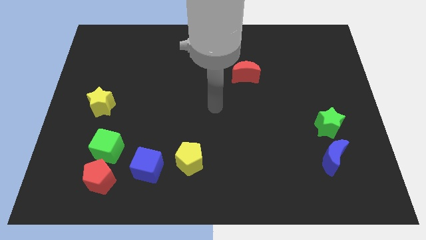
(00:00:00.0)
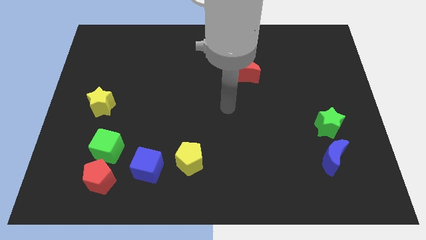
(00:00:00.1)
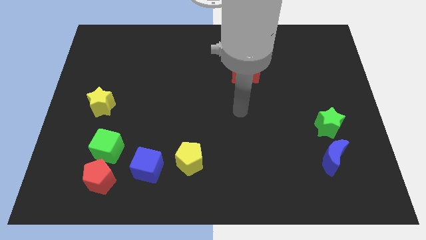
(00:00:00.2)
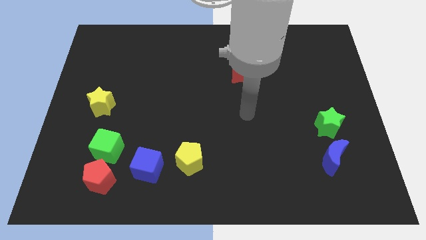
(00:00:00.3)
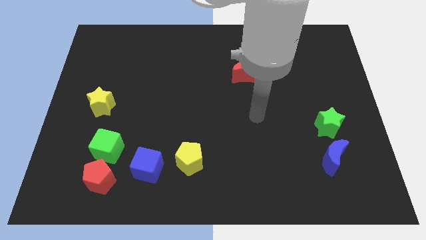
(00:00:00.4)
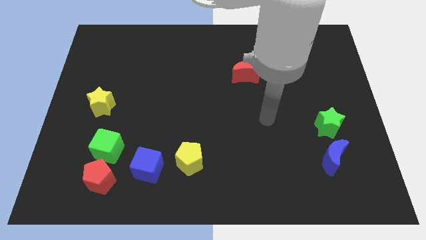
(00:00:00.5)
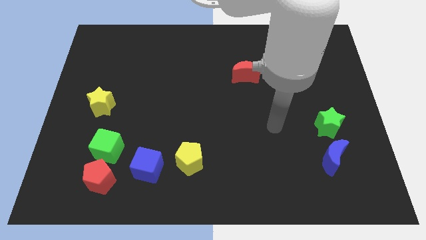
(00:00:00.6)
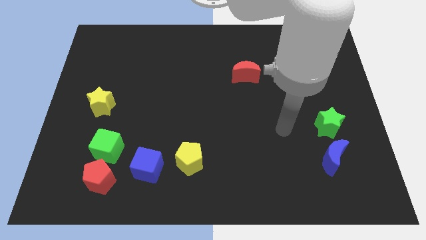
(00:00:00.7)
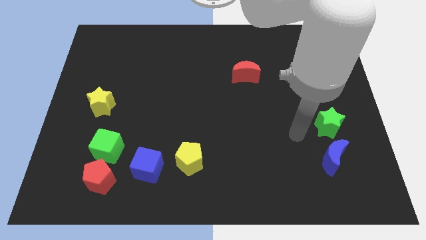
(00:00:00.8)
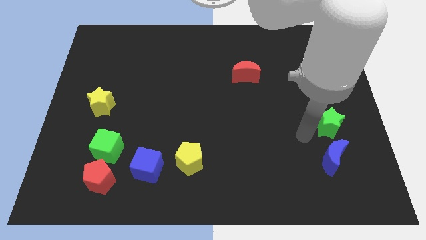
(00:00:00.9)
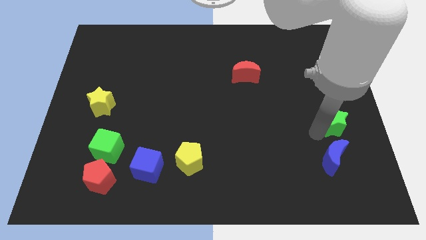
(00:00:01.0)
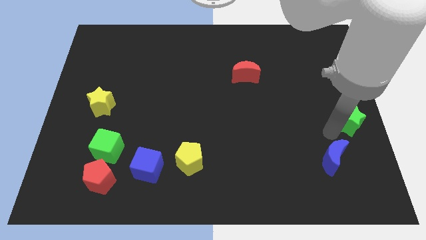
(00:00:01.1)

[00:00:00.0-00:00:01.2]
separate the blue moon from the green star

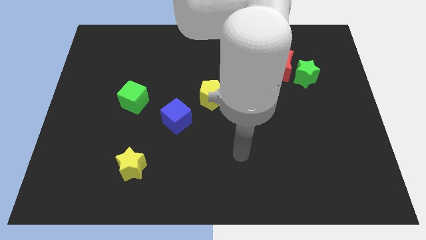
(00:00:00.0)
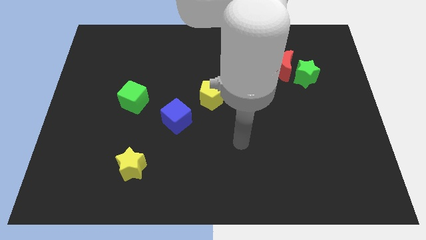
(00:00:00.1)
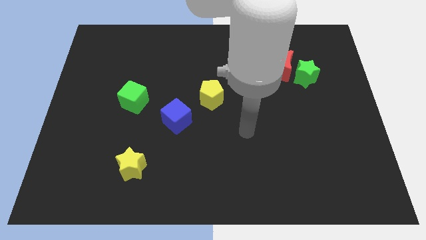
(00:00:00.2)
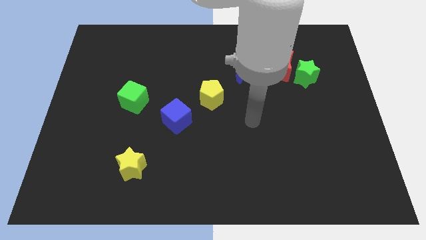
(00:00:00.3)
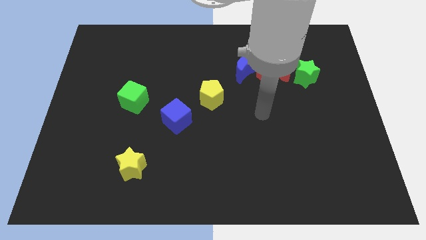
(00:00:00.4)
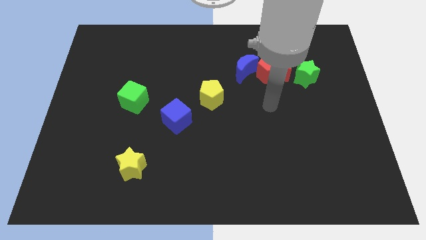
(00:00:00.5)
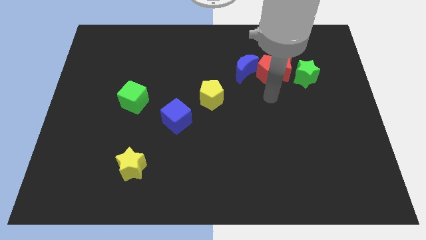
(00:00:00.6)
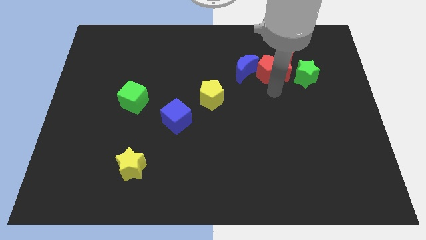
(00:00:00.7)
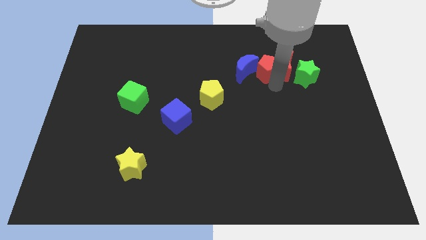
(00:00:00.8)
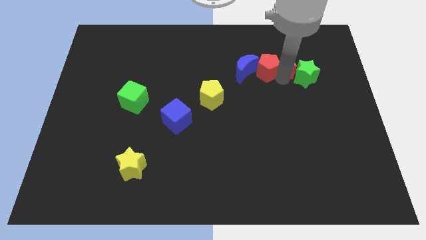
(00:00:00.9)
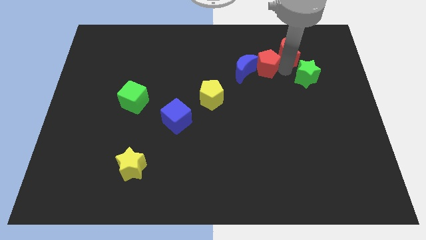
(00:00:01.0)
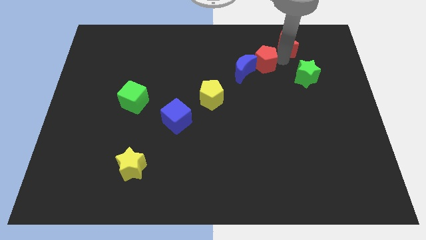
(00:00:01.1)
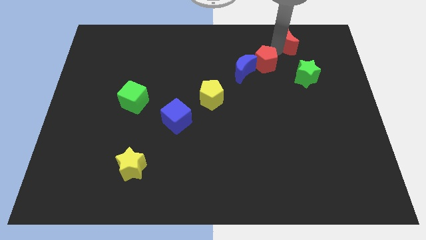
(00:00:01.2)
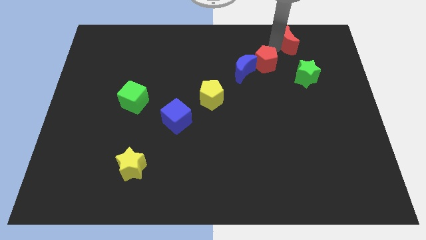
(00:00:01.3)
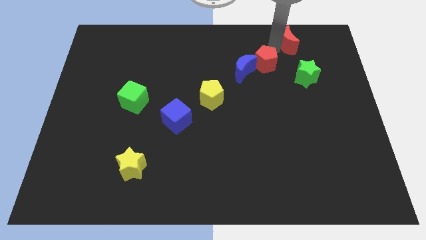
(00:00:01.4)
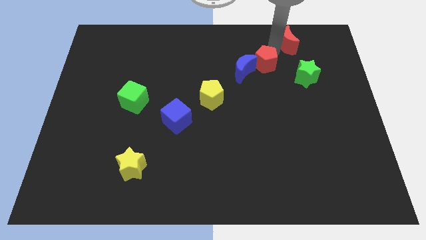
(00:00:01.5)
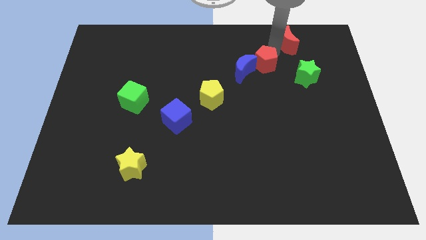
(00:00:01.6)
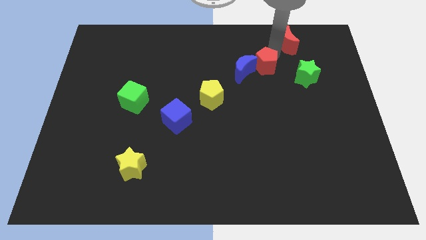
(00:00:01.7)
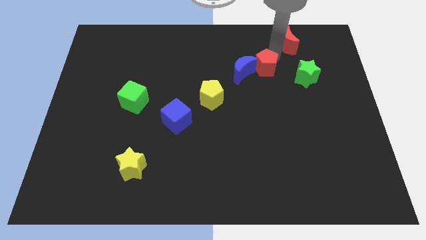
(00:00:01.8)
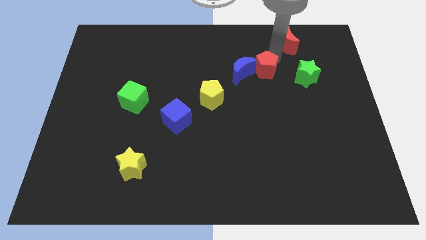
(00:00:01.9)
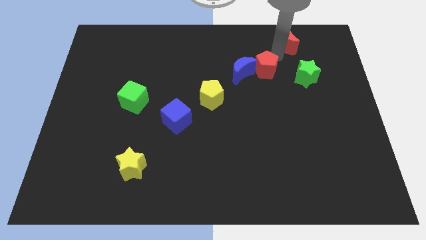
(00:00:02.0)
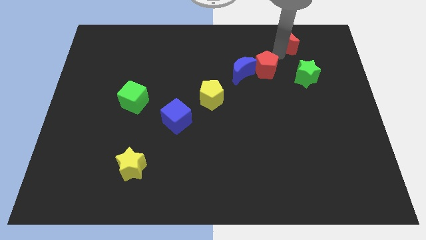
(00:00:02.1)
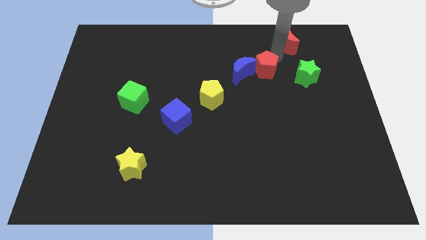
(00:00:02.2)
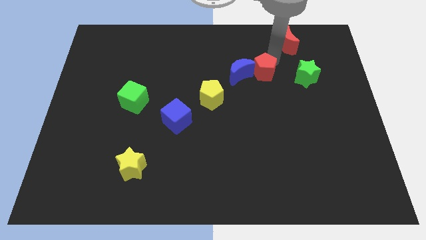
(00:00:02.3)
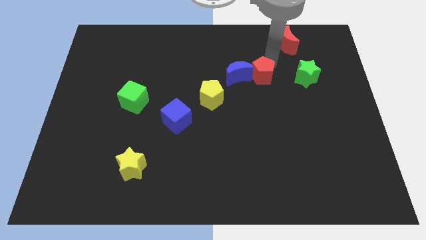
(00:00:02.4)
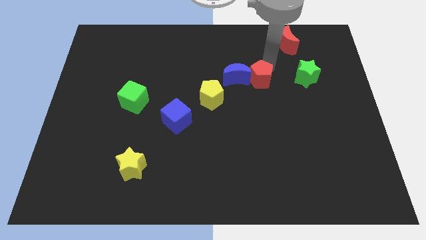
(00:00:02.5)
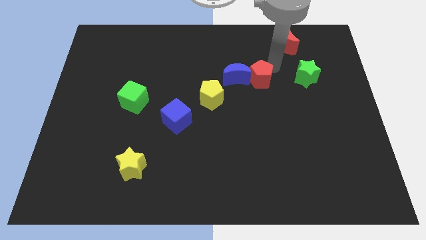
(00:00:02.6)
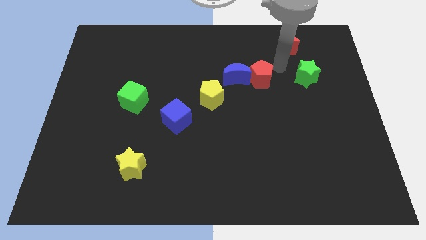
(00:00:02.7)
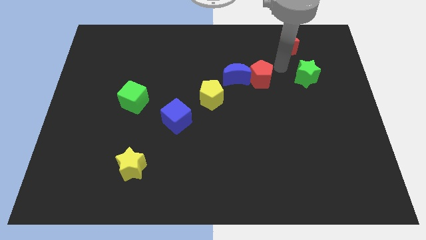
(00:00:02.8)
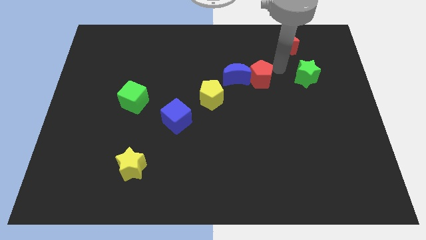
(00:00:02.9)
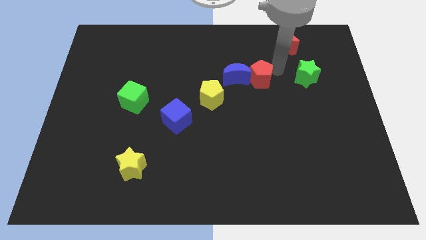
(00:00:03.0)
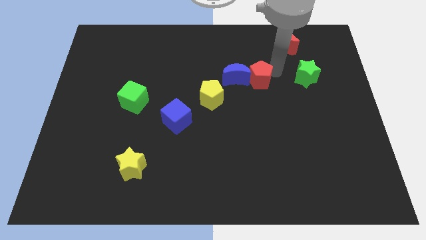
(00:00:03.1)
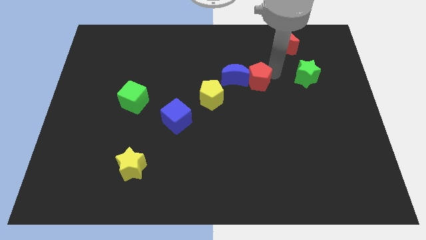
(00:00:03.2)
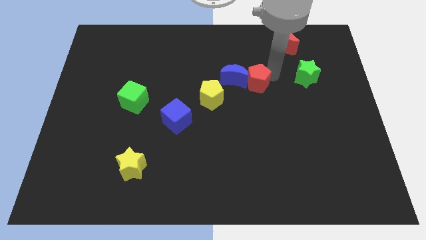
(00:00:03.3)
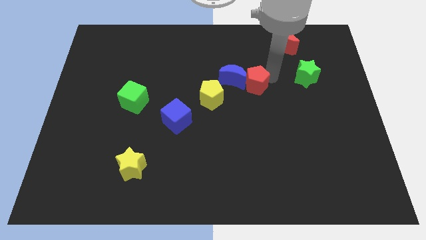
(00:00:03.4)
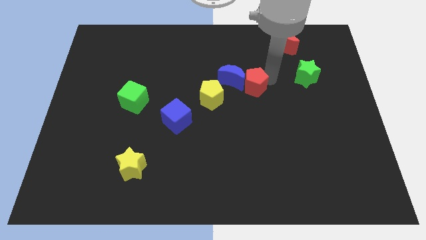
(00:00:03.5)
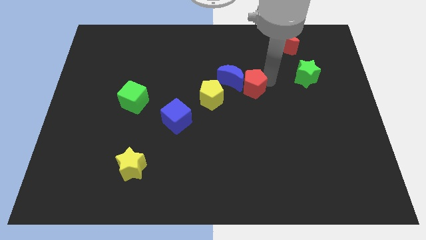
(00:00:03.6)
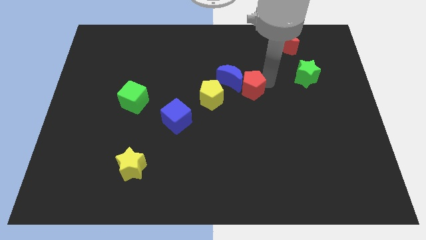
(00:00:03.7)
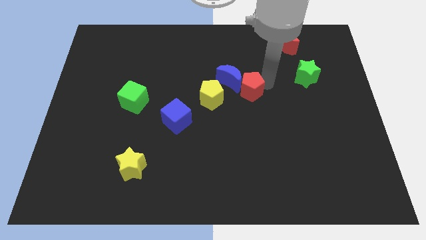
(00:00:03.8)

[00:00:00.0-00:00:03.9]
separate the red pentagon from the group

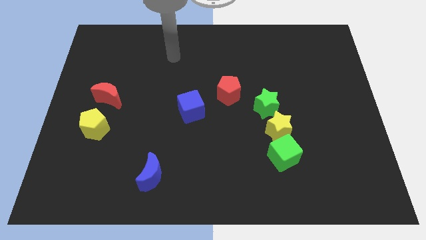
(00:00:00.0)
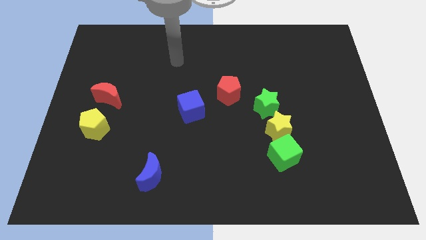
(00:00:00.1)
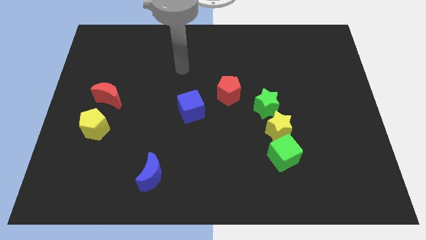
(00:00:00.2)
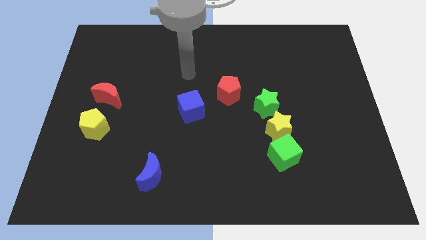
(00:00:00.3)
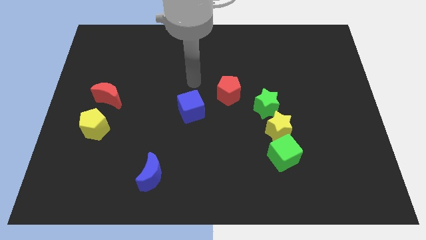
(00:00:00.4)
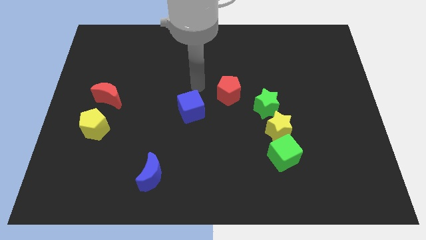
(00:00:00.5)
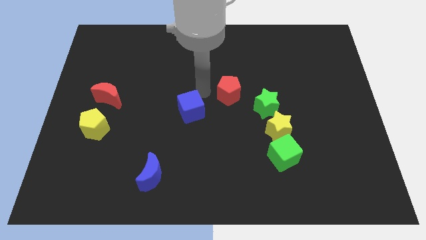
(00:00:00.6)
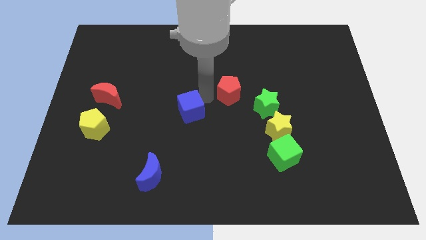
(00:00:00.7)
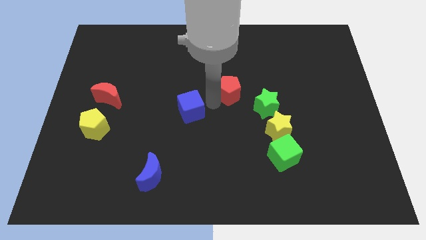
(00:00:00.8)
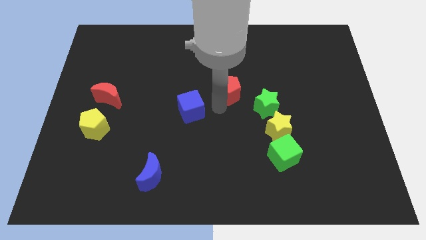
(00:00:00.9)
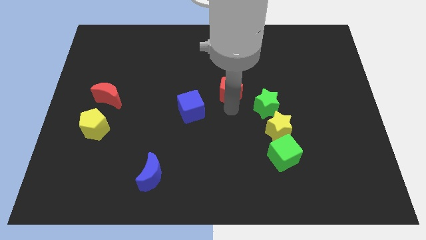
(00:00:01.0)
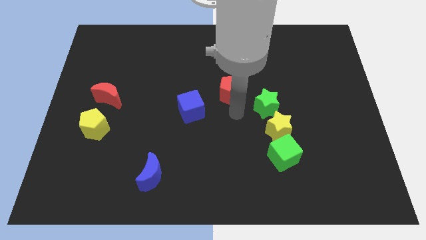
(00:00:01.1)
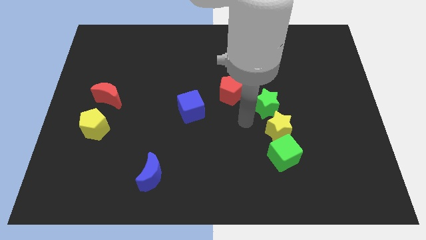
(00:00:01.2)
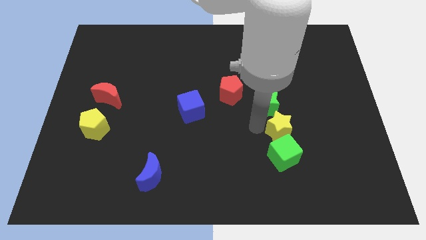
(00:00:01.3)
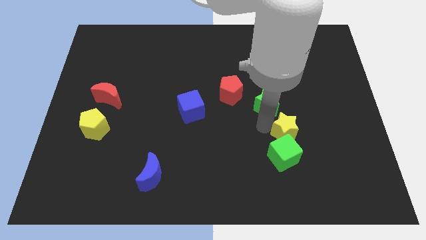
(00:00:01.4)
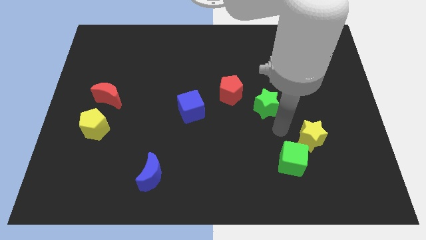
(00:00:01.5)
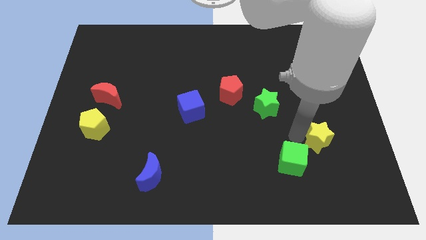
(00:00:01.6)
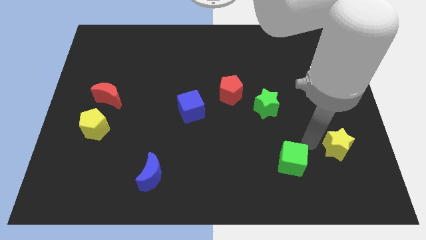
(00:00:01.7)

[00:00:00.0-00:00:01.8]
move the green cube away from the yellow star

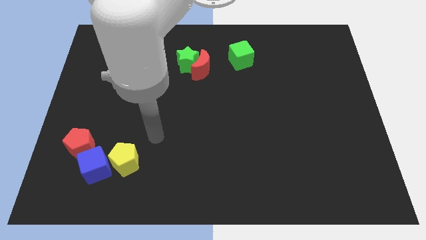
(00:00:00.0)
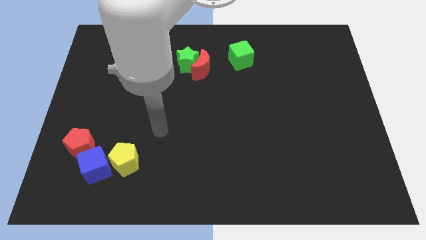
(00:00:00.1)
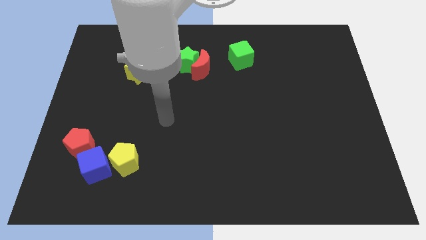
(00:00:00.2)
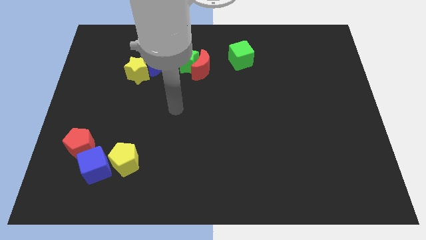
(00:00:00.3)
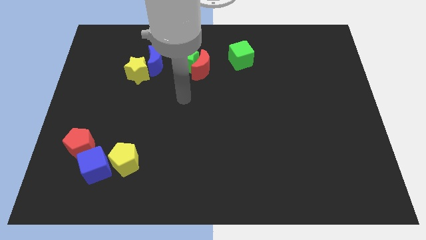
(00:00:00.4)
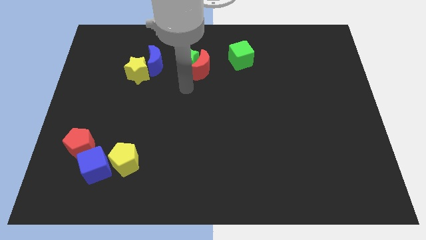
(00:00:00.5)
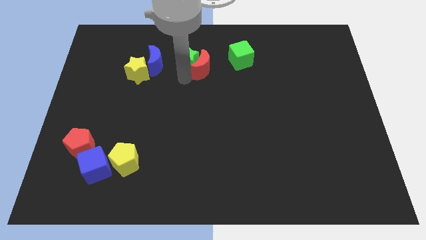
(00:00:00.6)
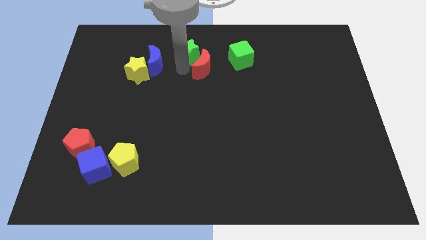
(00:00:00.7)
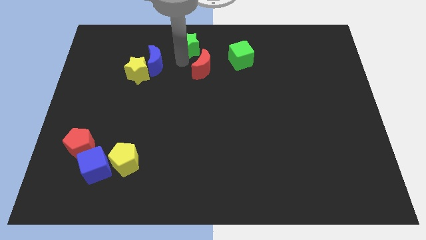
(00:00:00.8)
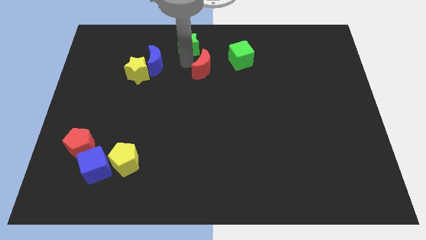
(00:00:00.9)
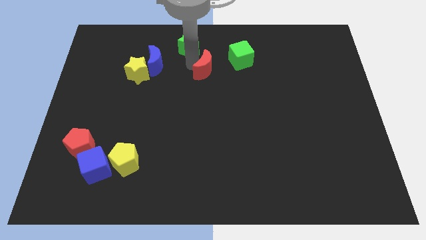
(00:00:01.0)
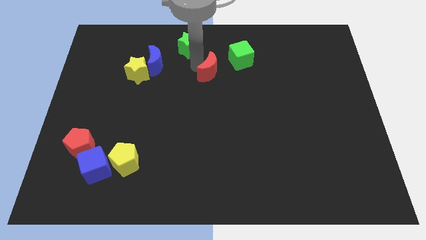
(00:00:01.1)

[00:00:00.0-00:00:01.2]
separate the red moon from the green star

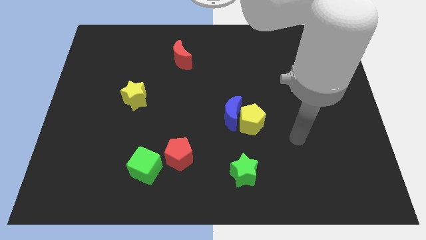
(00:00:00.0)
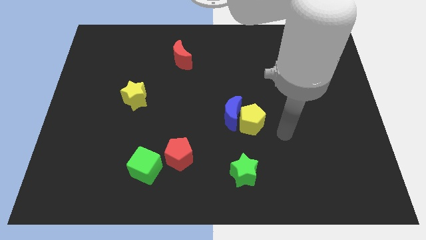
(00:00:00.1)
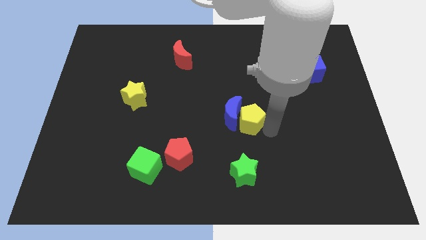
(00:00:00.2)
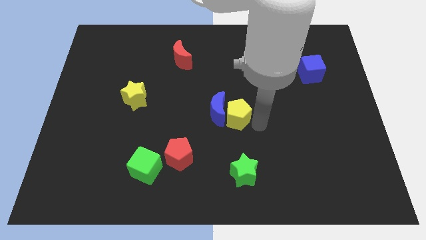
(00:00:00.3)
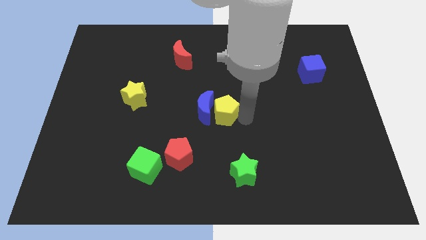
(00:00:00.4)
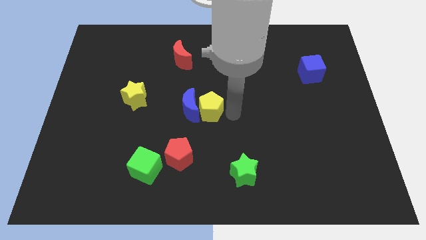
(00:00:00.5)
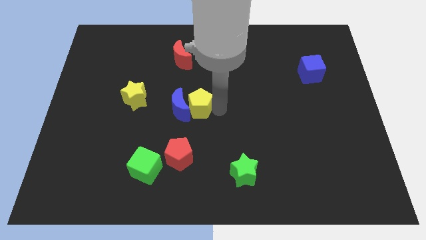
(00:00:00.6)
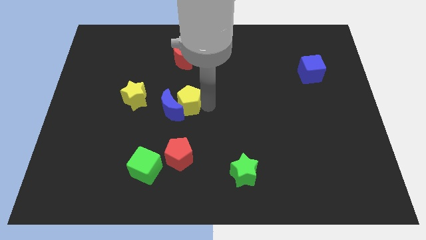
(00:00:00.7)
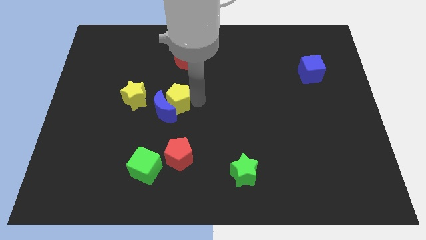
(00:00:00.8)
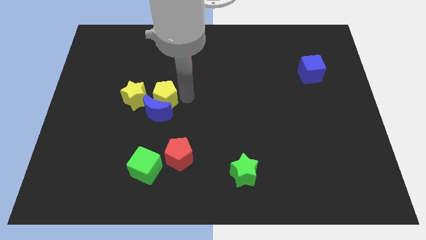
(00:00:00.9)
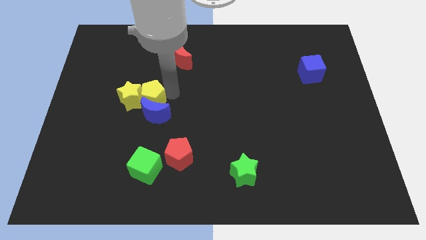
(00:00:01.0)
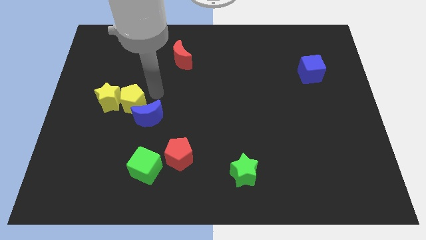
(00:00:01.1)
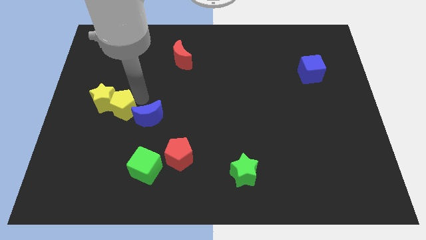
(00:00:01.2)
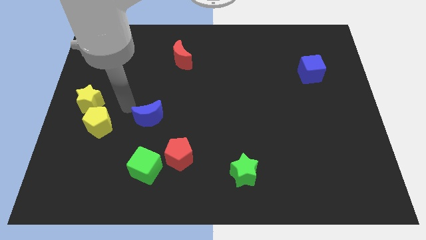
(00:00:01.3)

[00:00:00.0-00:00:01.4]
move the blue moon away from the yellow pentagon
